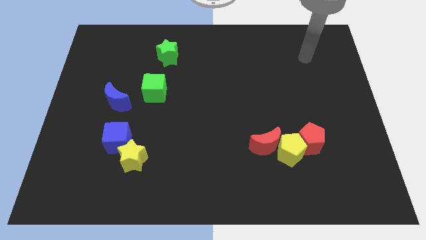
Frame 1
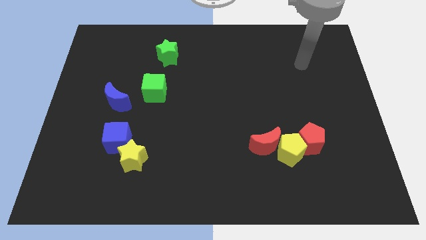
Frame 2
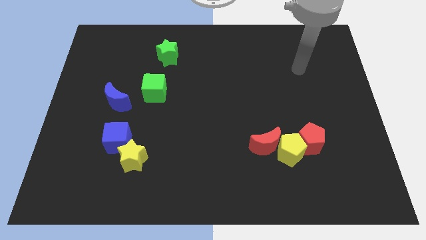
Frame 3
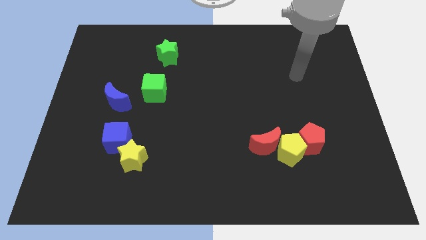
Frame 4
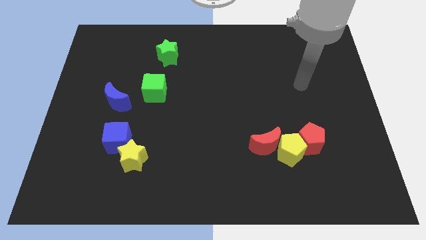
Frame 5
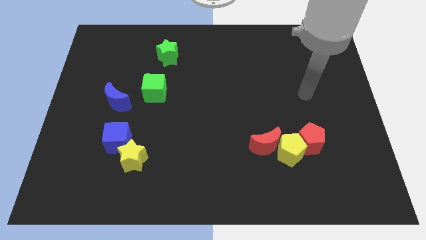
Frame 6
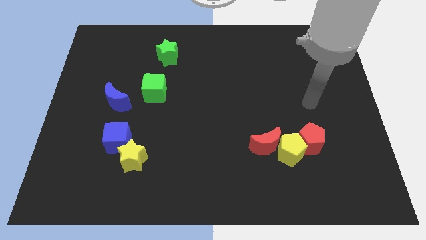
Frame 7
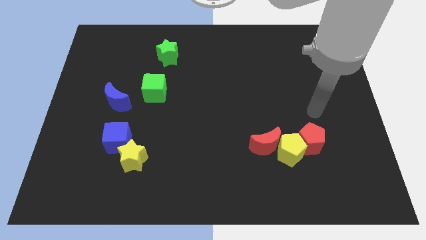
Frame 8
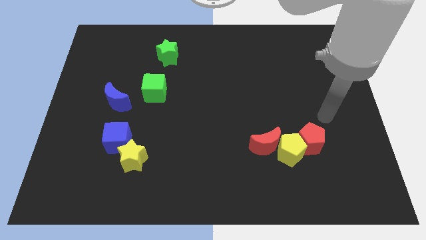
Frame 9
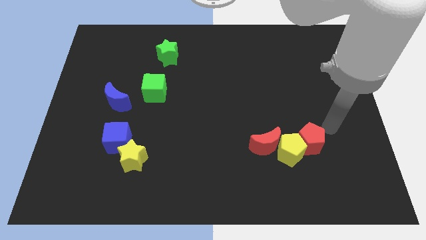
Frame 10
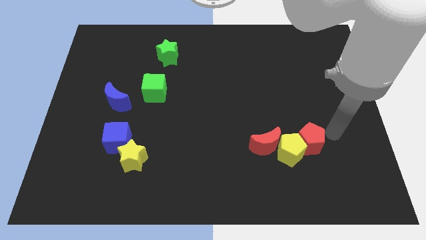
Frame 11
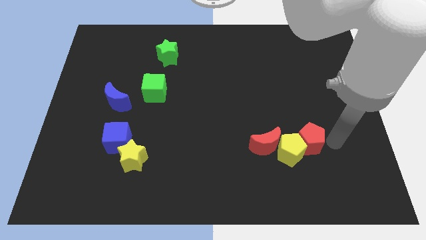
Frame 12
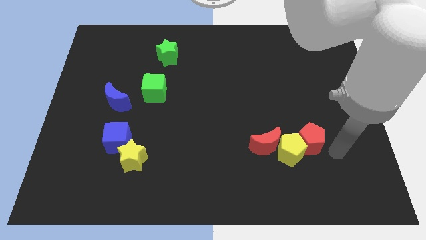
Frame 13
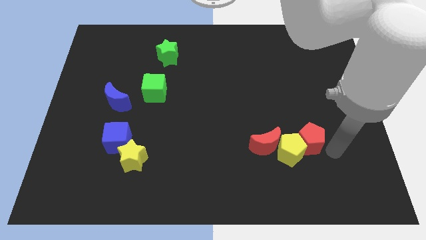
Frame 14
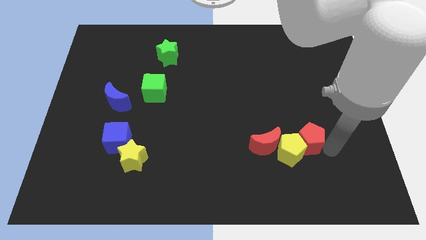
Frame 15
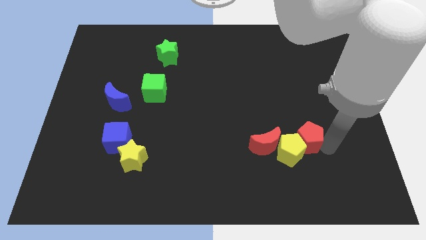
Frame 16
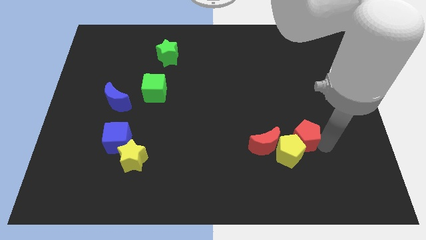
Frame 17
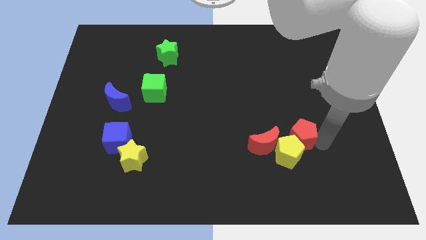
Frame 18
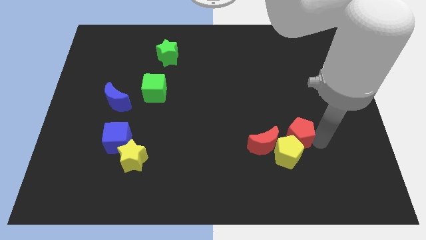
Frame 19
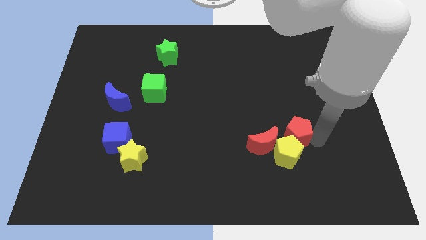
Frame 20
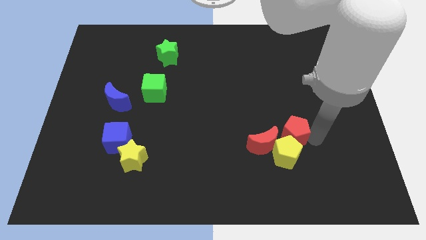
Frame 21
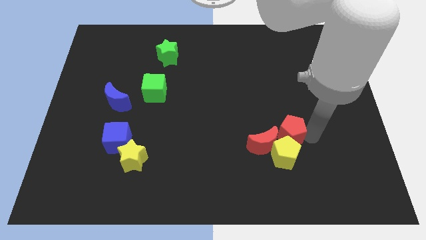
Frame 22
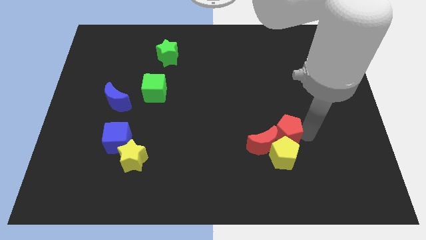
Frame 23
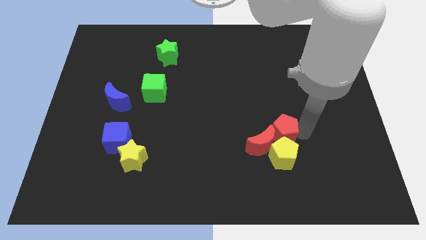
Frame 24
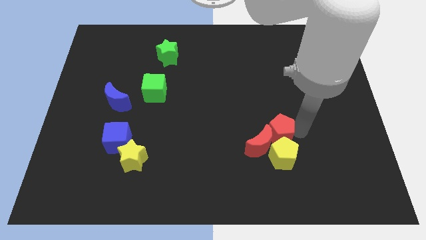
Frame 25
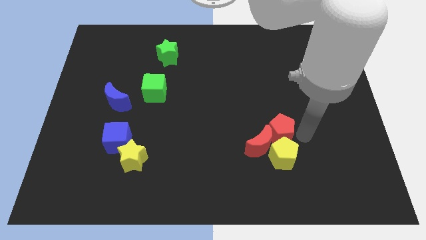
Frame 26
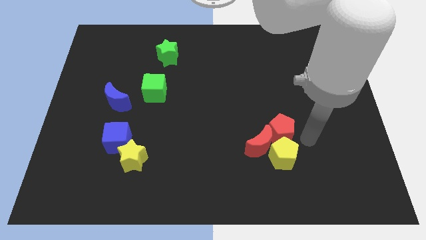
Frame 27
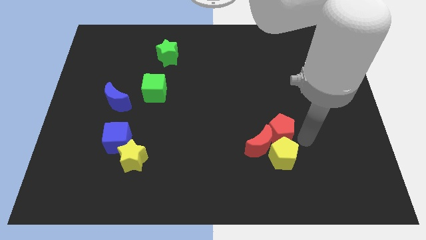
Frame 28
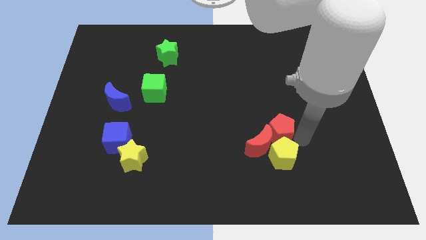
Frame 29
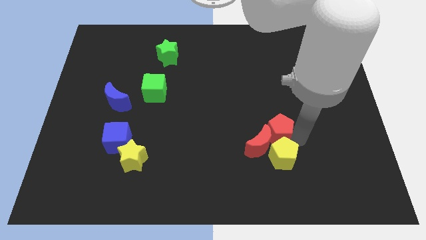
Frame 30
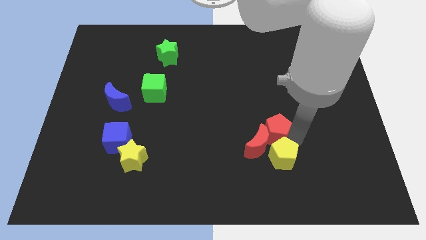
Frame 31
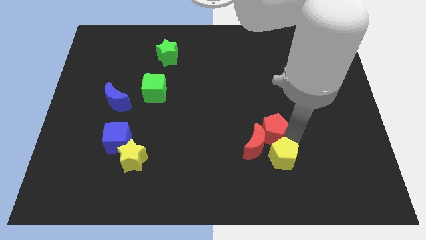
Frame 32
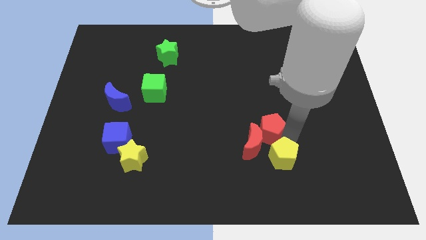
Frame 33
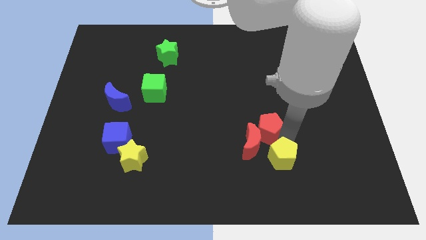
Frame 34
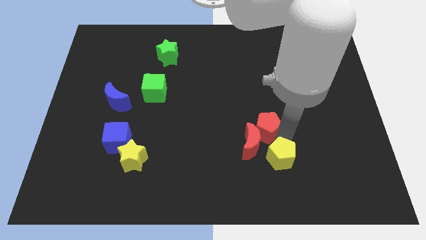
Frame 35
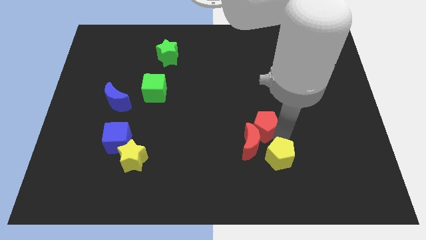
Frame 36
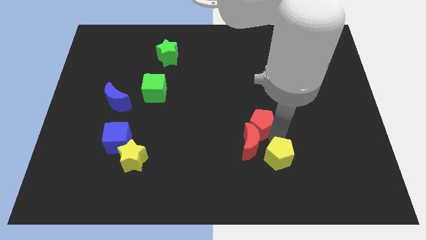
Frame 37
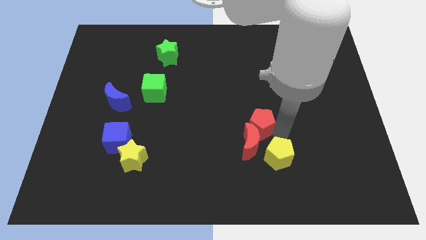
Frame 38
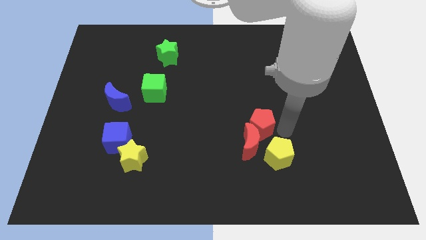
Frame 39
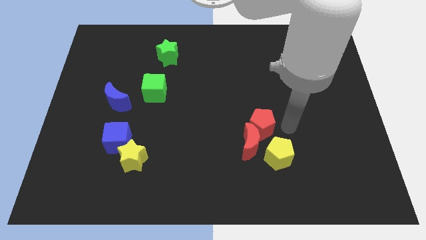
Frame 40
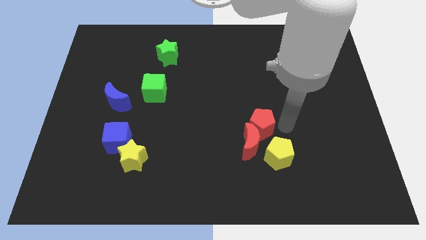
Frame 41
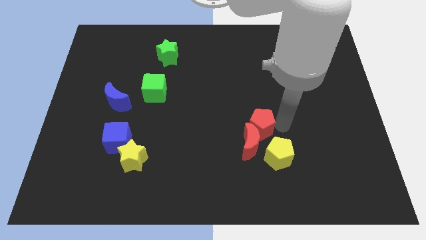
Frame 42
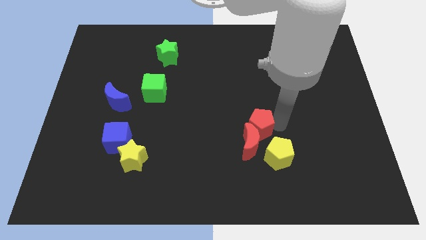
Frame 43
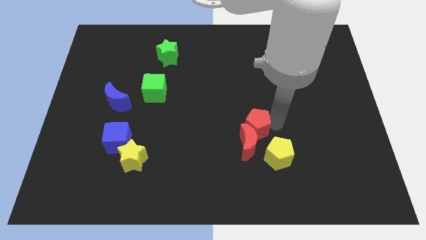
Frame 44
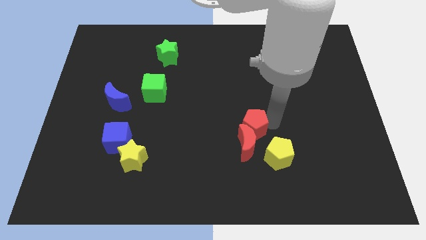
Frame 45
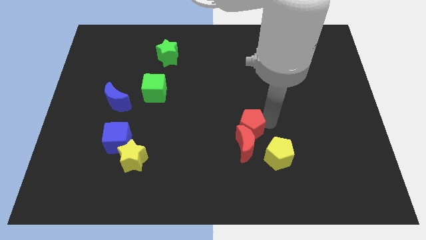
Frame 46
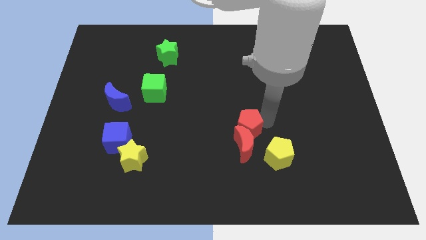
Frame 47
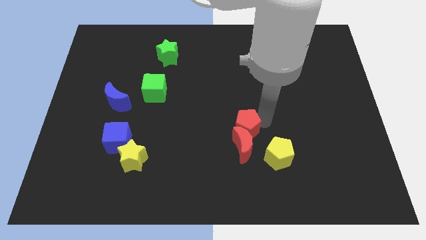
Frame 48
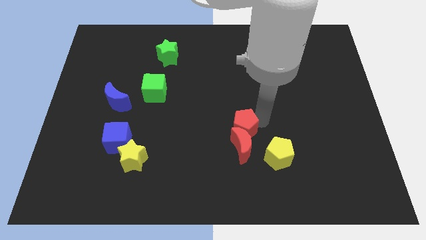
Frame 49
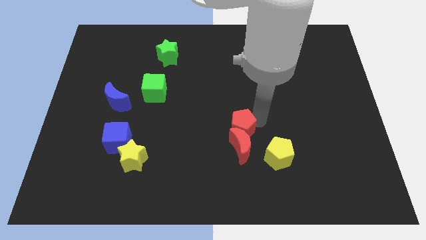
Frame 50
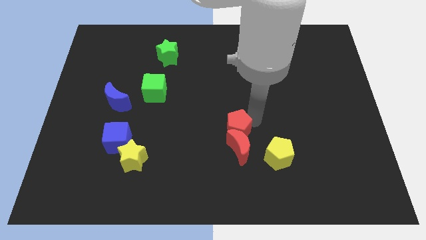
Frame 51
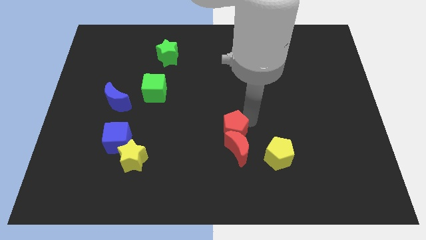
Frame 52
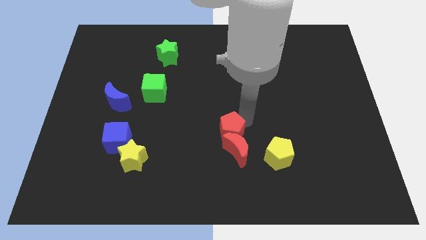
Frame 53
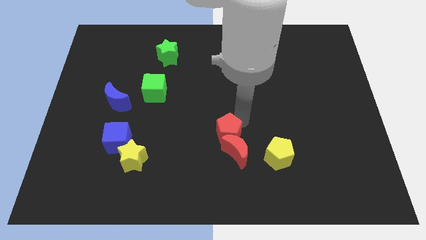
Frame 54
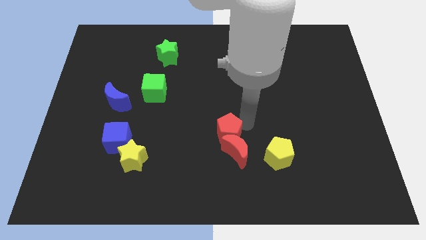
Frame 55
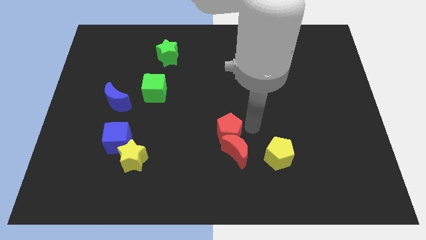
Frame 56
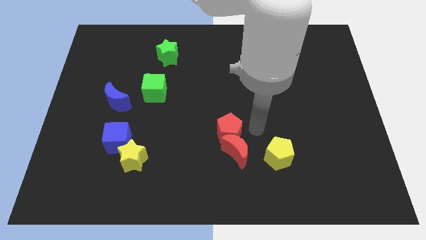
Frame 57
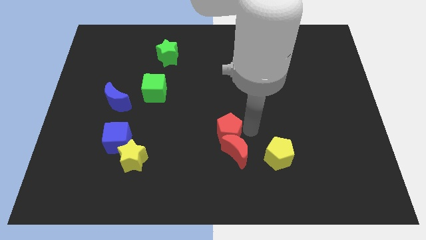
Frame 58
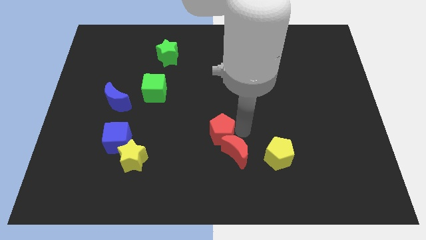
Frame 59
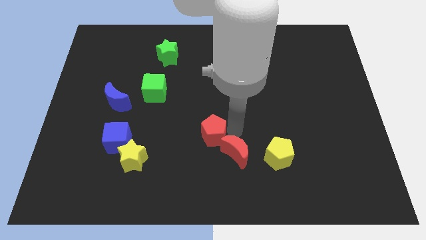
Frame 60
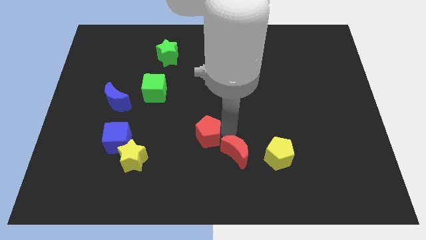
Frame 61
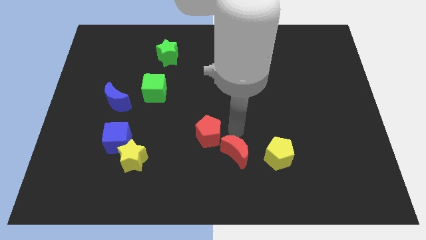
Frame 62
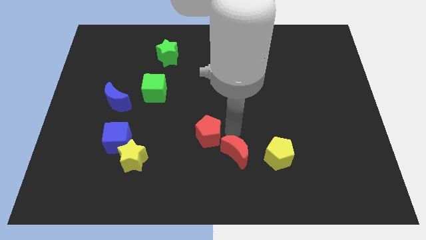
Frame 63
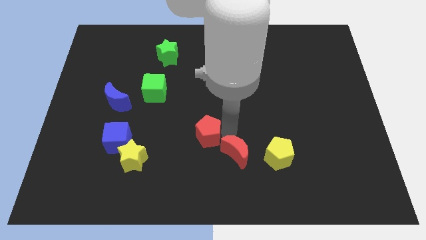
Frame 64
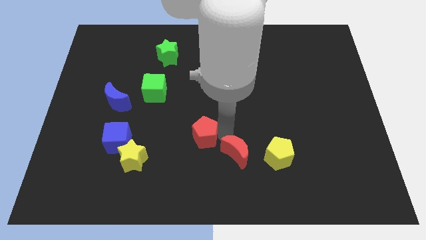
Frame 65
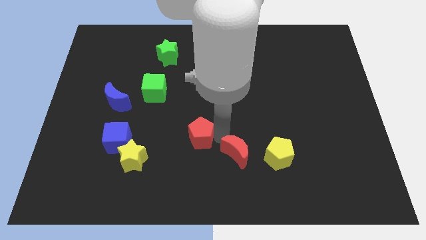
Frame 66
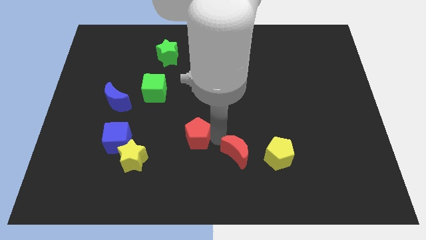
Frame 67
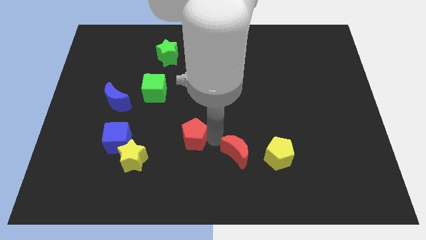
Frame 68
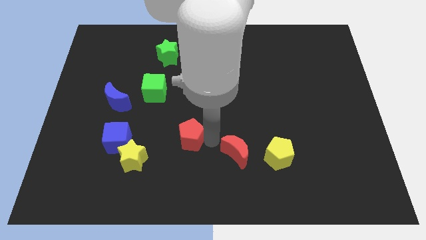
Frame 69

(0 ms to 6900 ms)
push the red pentagon to the right side of the blue cube
